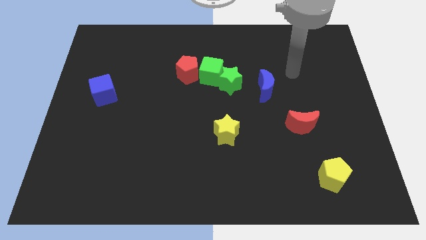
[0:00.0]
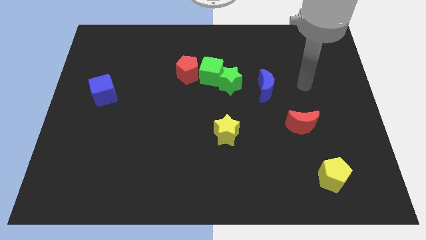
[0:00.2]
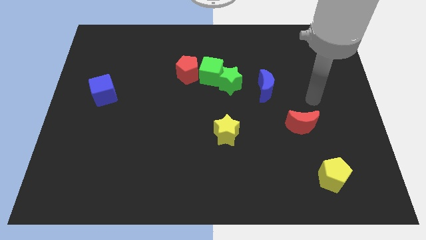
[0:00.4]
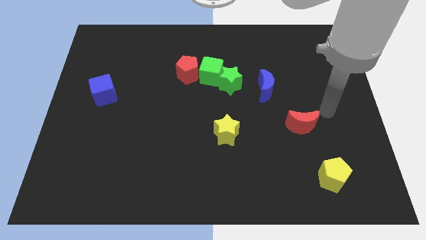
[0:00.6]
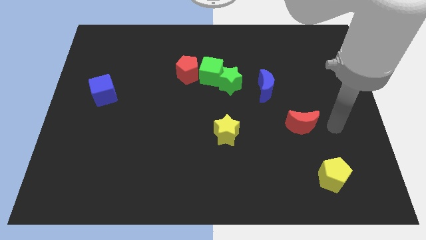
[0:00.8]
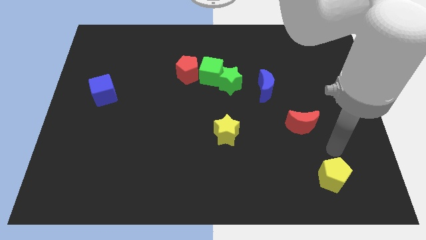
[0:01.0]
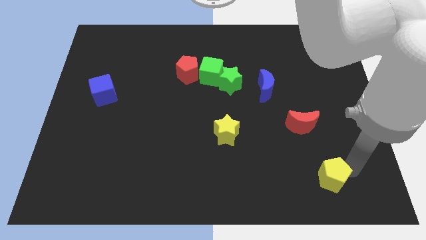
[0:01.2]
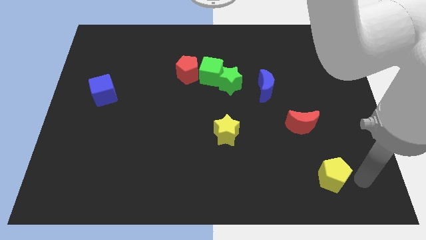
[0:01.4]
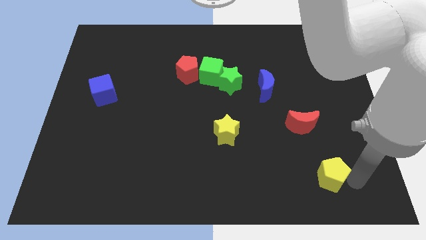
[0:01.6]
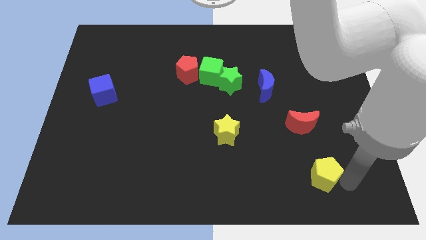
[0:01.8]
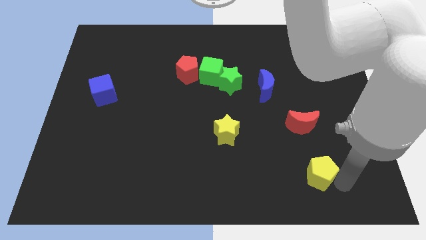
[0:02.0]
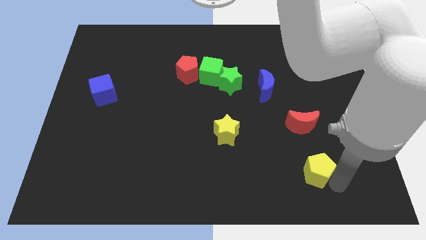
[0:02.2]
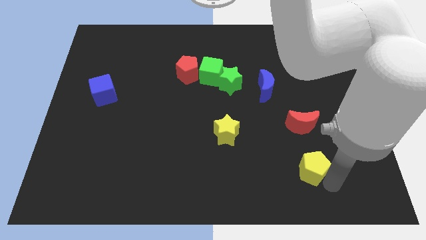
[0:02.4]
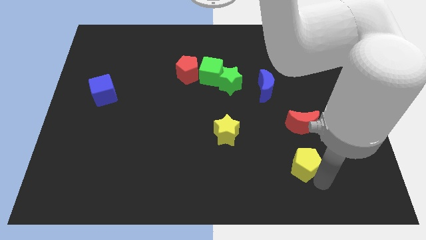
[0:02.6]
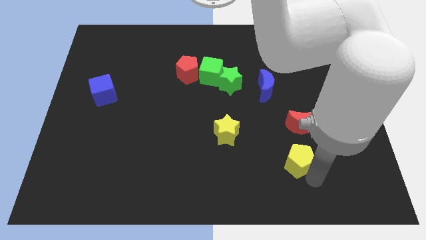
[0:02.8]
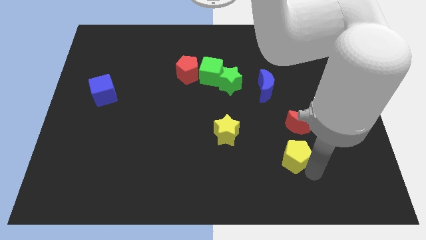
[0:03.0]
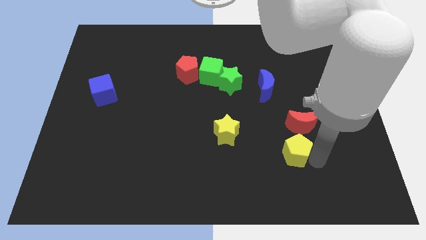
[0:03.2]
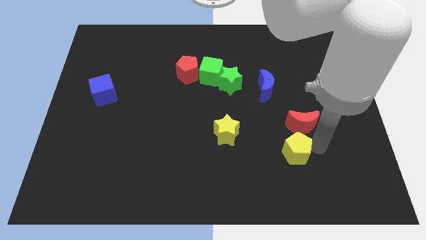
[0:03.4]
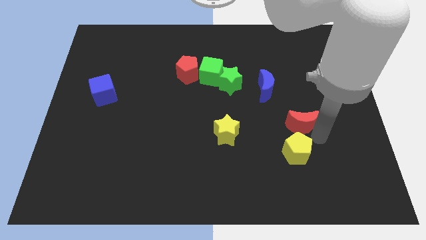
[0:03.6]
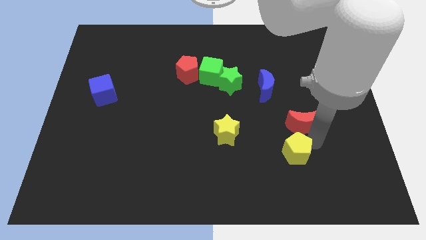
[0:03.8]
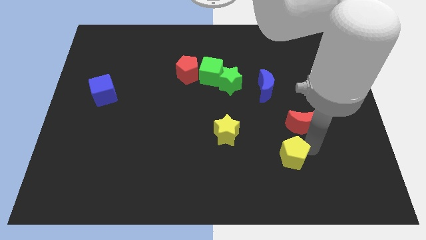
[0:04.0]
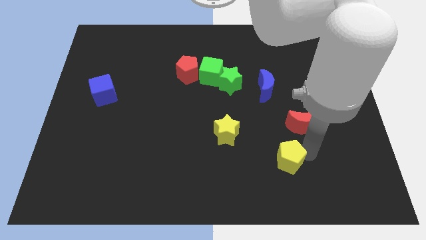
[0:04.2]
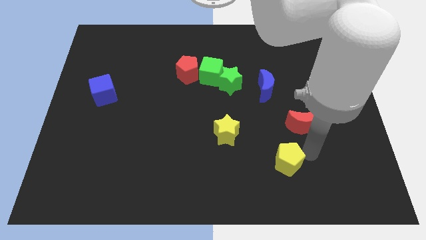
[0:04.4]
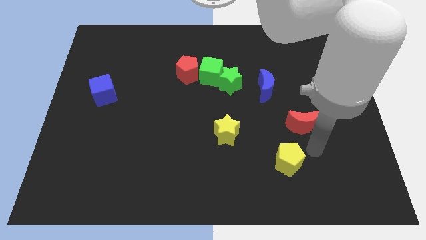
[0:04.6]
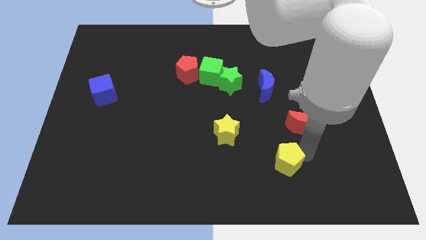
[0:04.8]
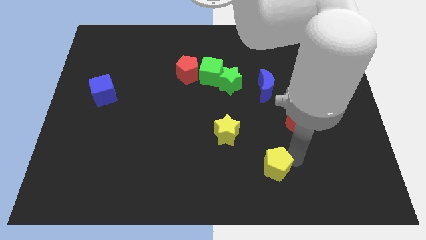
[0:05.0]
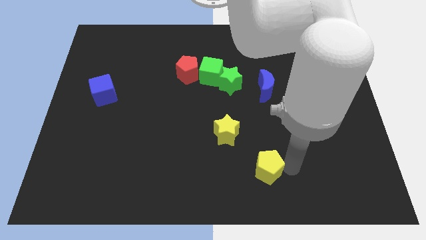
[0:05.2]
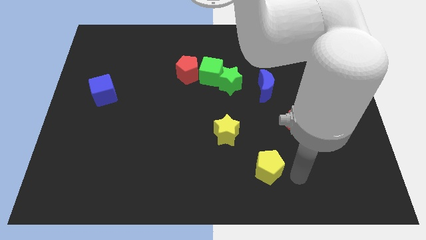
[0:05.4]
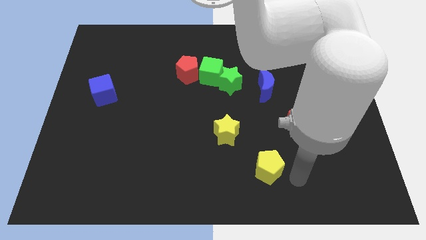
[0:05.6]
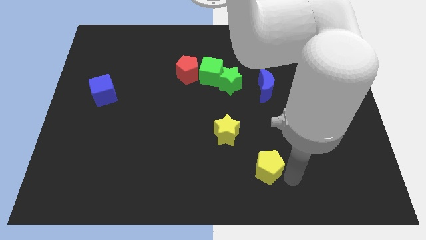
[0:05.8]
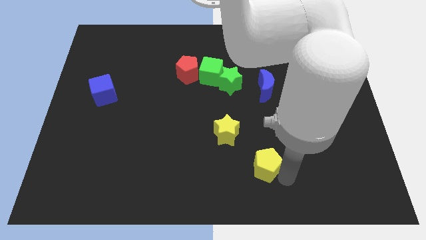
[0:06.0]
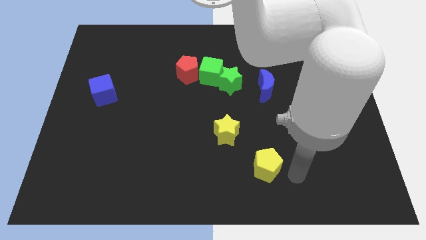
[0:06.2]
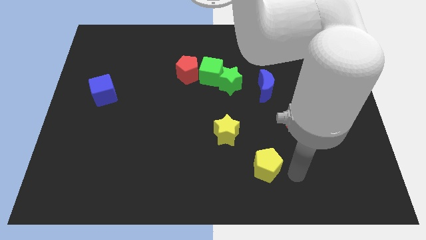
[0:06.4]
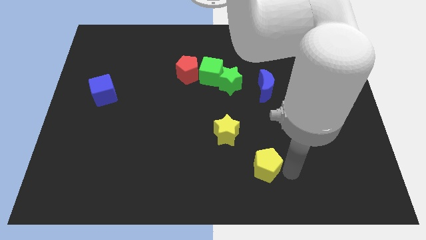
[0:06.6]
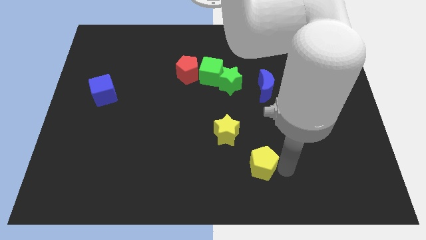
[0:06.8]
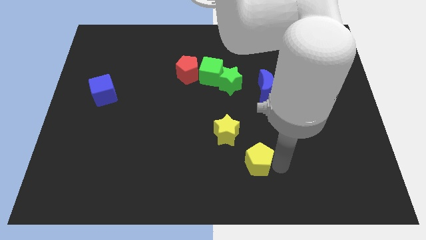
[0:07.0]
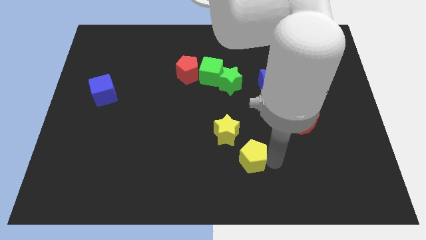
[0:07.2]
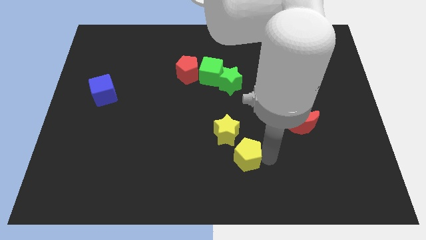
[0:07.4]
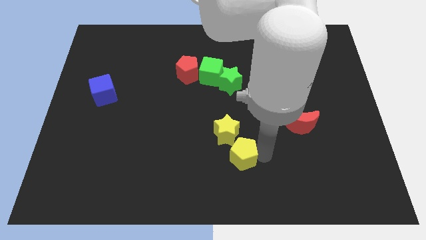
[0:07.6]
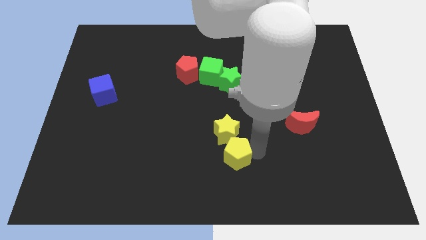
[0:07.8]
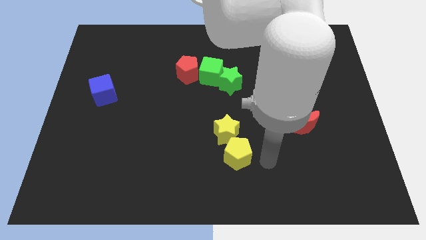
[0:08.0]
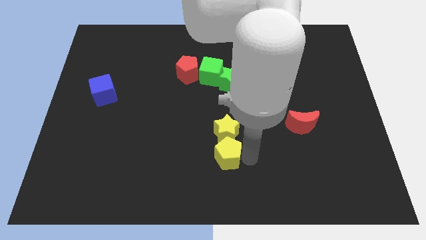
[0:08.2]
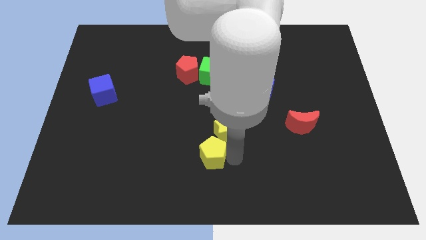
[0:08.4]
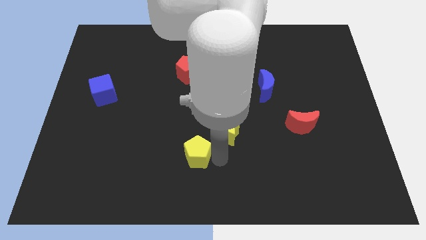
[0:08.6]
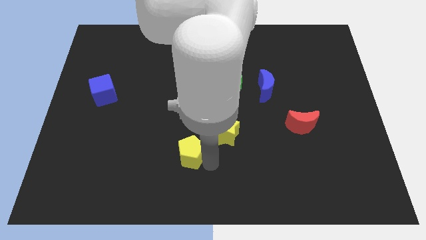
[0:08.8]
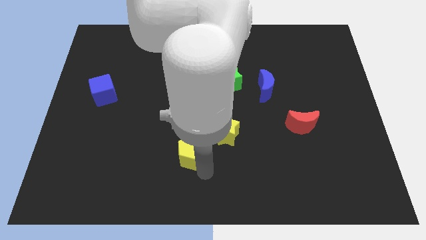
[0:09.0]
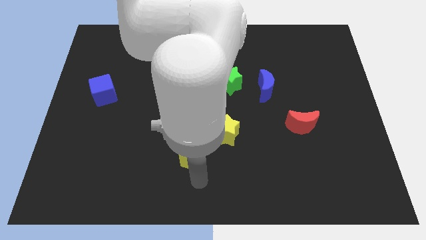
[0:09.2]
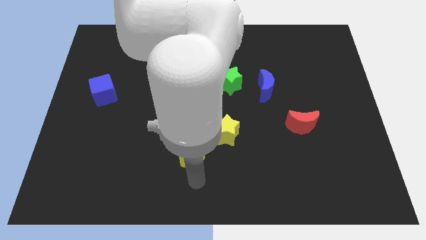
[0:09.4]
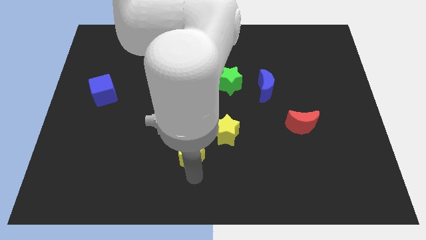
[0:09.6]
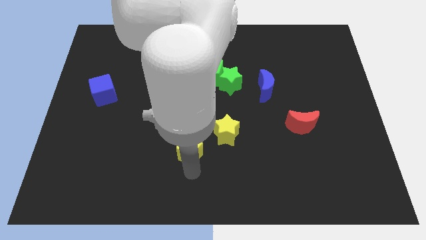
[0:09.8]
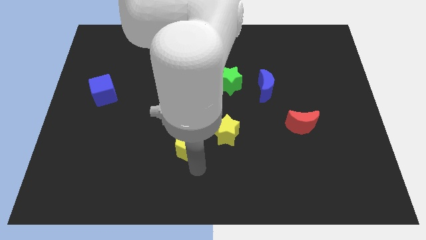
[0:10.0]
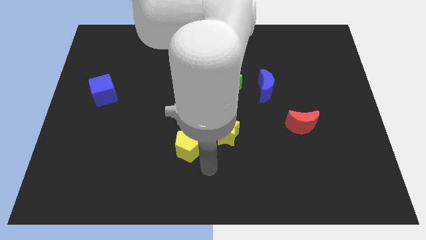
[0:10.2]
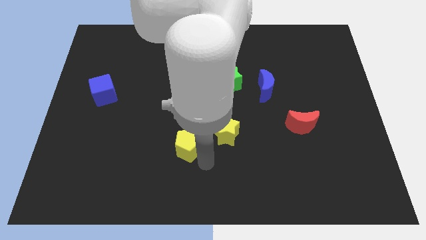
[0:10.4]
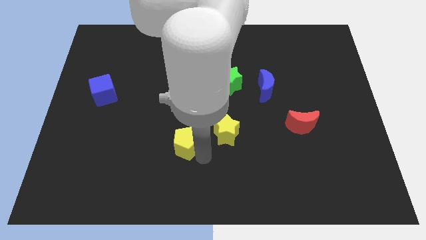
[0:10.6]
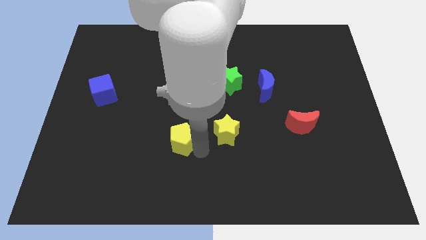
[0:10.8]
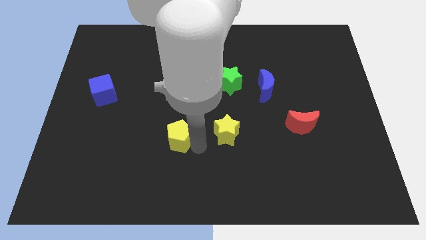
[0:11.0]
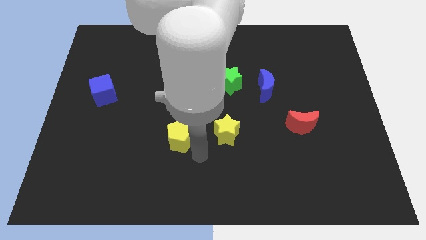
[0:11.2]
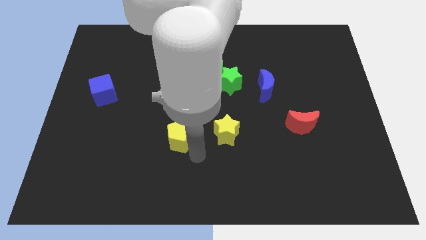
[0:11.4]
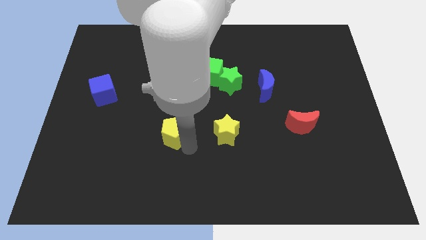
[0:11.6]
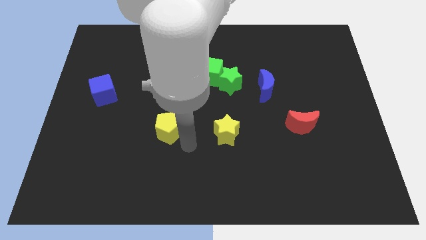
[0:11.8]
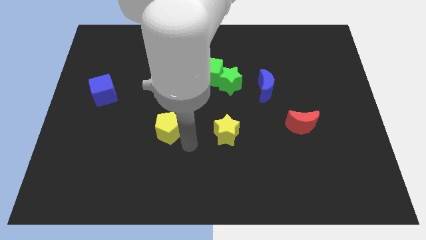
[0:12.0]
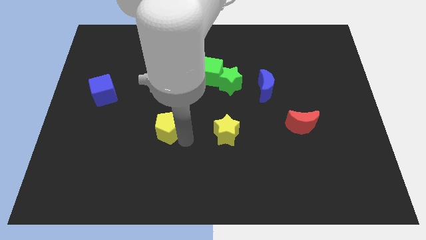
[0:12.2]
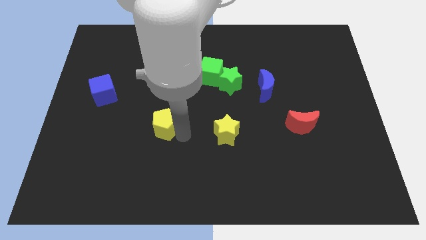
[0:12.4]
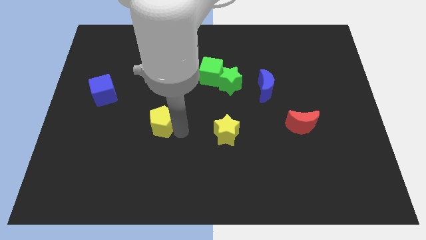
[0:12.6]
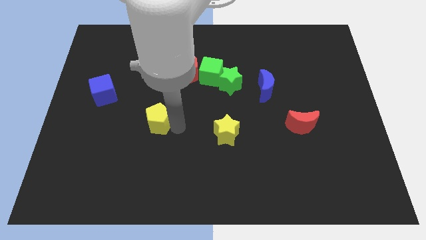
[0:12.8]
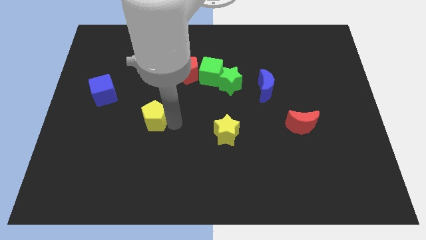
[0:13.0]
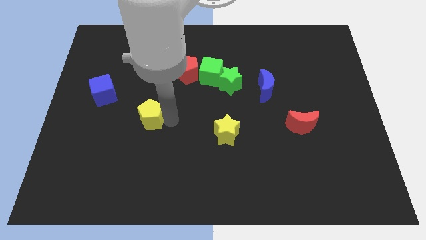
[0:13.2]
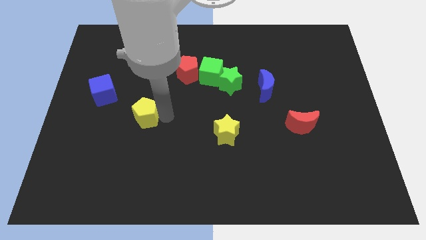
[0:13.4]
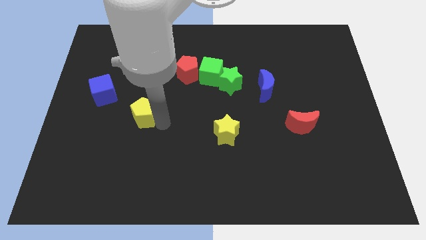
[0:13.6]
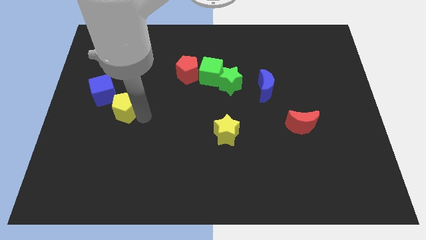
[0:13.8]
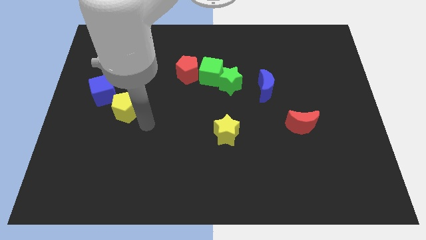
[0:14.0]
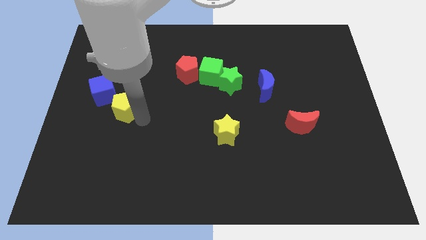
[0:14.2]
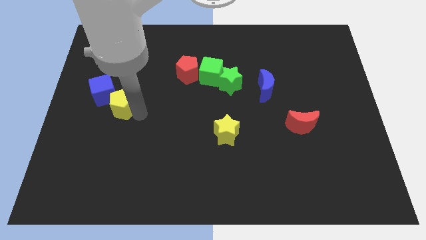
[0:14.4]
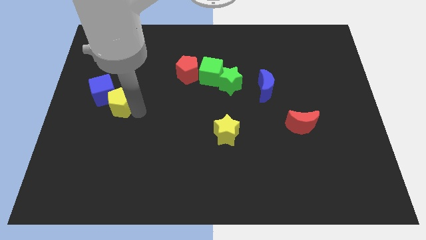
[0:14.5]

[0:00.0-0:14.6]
push the yellow pentagon towards the blue cube
